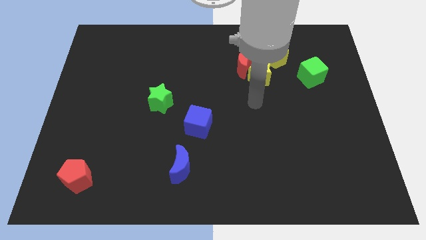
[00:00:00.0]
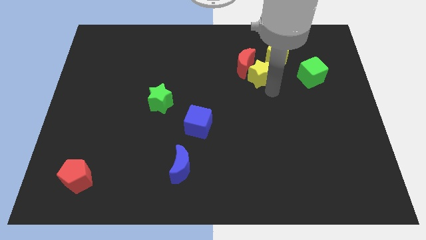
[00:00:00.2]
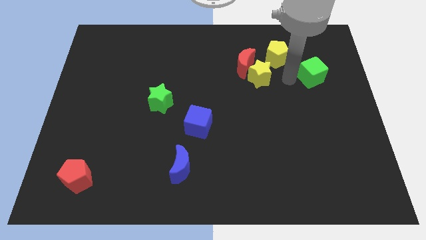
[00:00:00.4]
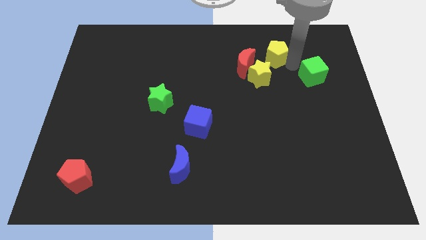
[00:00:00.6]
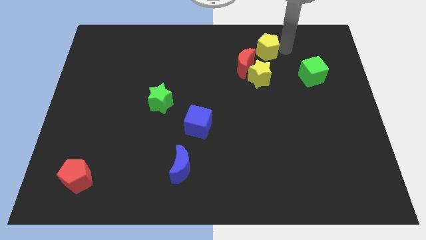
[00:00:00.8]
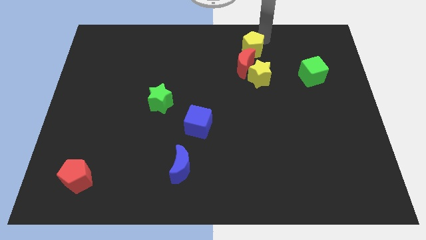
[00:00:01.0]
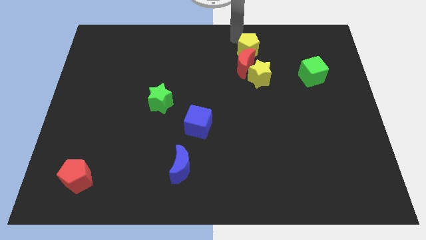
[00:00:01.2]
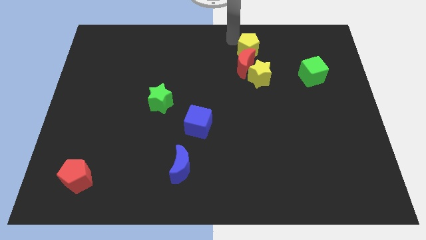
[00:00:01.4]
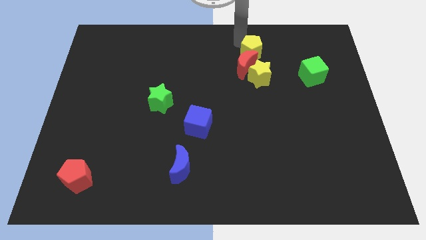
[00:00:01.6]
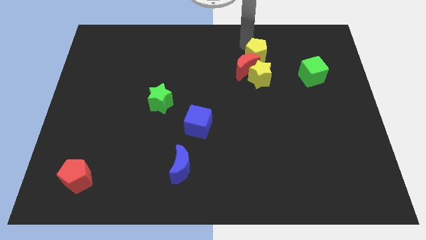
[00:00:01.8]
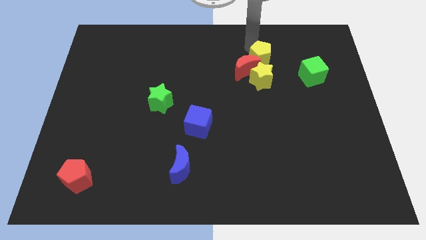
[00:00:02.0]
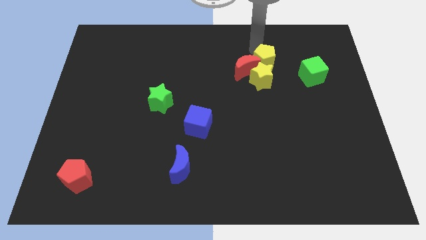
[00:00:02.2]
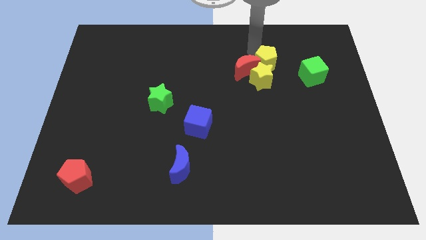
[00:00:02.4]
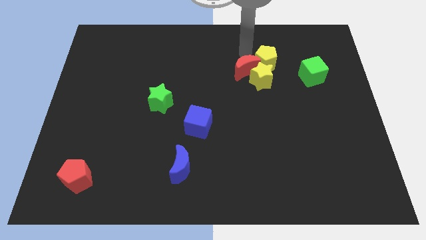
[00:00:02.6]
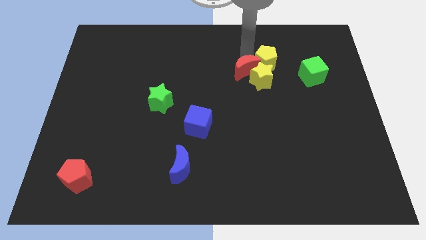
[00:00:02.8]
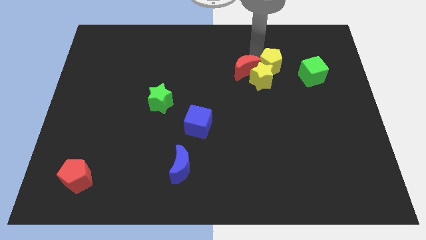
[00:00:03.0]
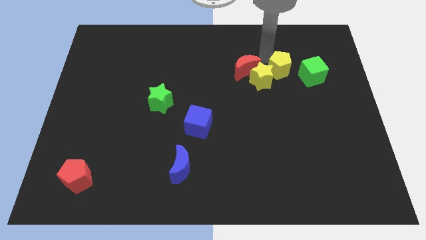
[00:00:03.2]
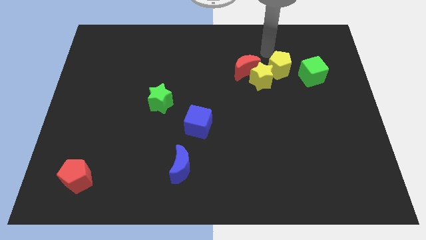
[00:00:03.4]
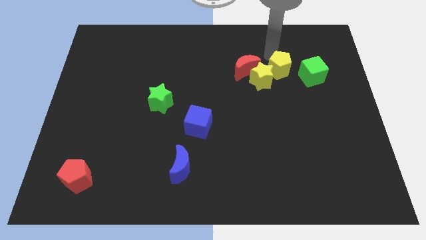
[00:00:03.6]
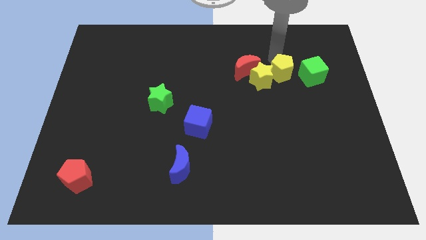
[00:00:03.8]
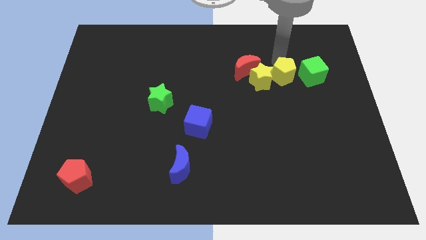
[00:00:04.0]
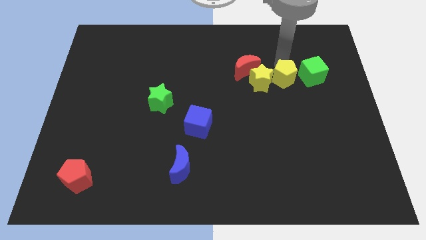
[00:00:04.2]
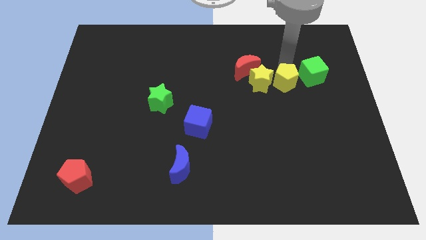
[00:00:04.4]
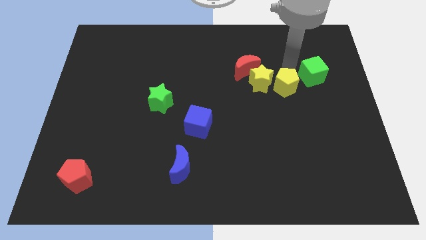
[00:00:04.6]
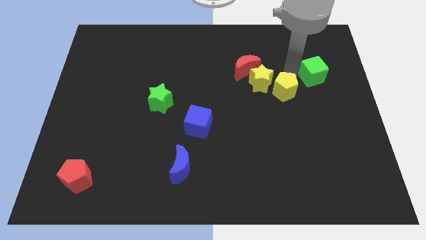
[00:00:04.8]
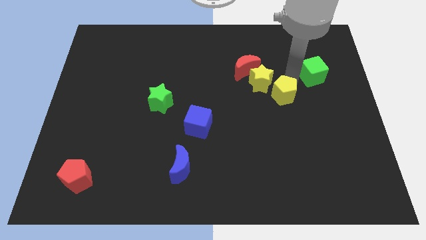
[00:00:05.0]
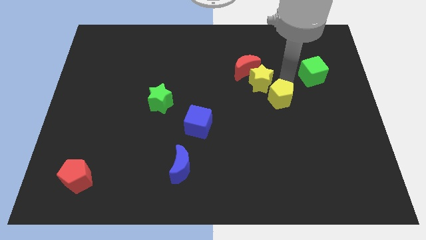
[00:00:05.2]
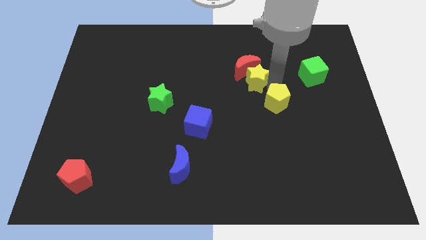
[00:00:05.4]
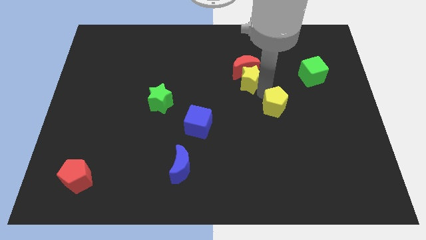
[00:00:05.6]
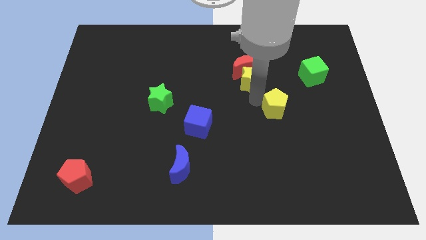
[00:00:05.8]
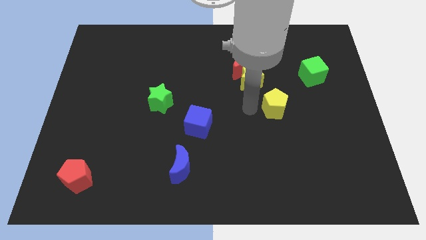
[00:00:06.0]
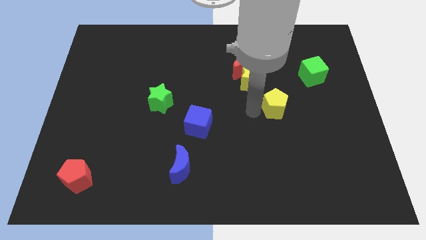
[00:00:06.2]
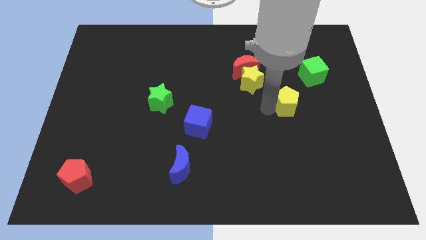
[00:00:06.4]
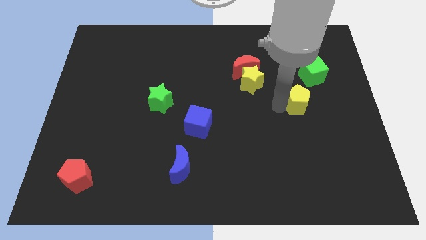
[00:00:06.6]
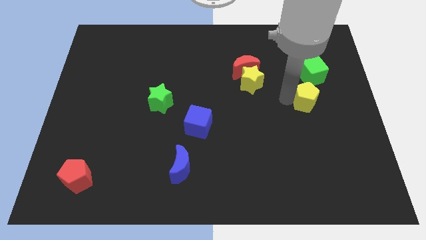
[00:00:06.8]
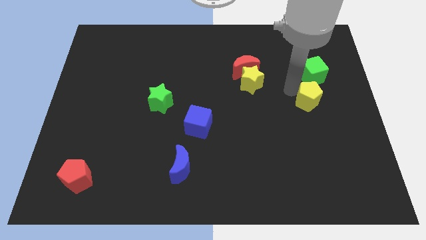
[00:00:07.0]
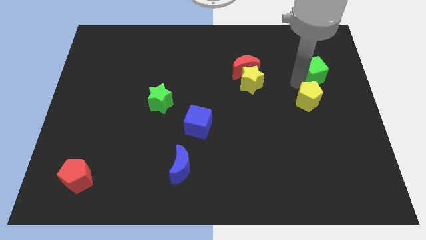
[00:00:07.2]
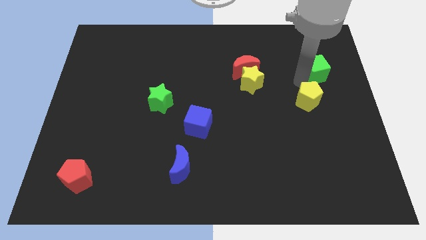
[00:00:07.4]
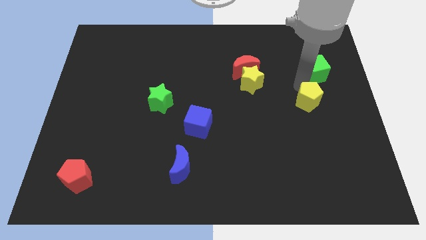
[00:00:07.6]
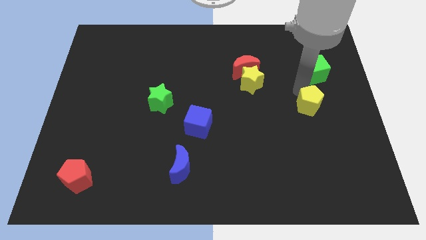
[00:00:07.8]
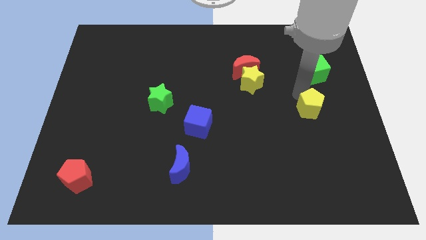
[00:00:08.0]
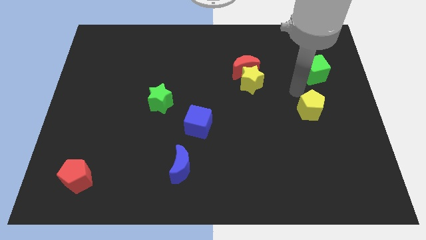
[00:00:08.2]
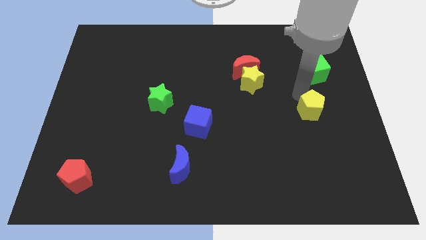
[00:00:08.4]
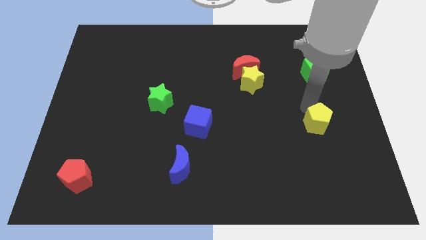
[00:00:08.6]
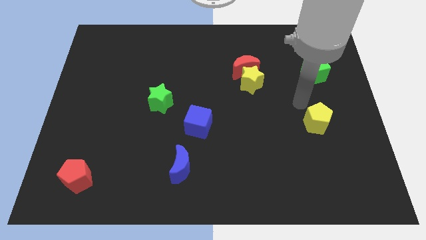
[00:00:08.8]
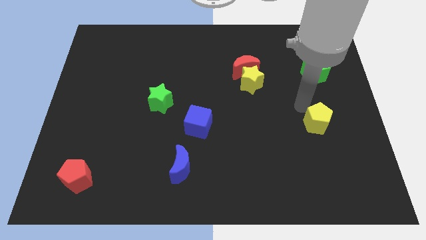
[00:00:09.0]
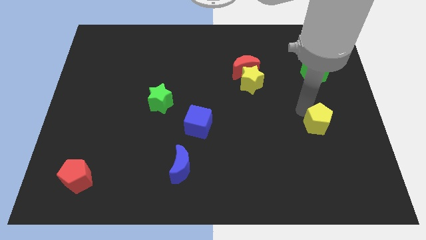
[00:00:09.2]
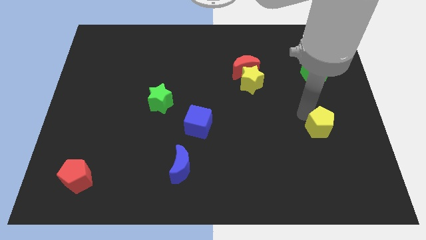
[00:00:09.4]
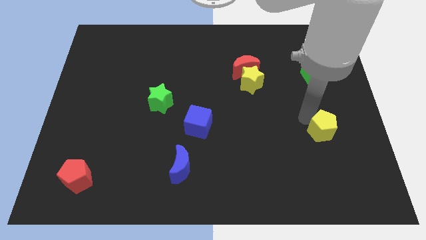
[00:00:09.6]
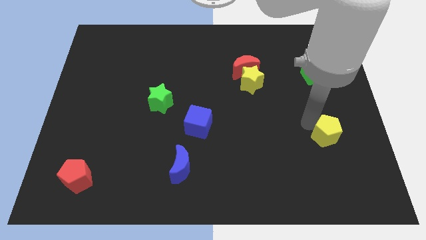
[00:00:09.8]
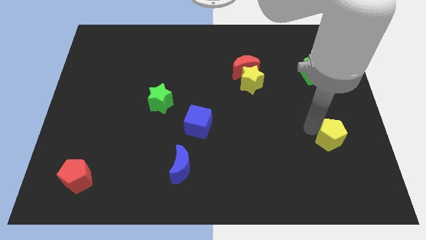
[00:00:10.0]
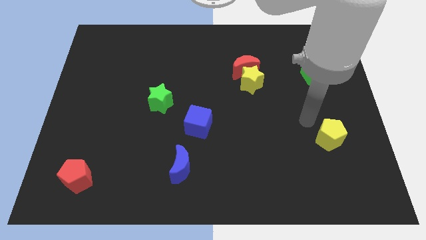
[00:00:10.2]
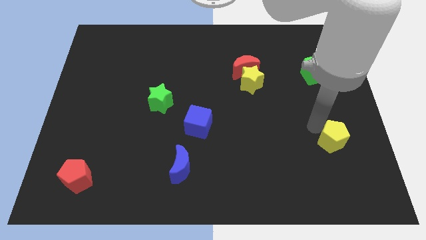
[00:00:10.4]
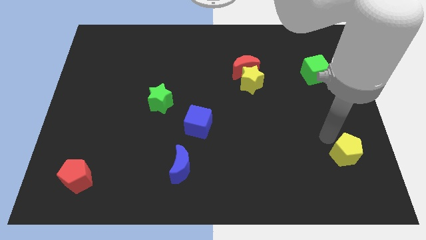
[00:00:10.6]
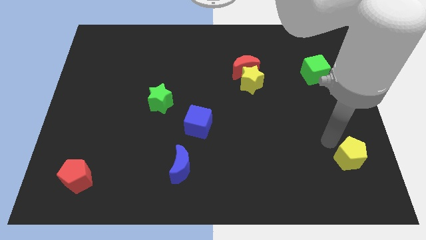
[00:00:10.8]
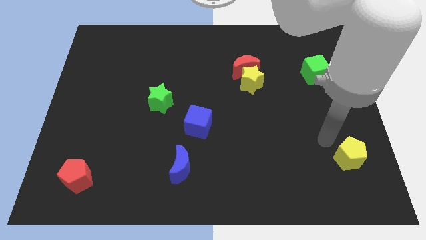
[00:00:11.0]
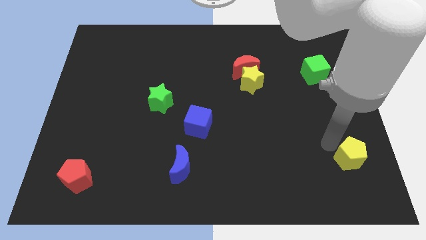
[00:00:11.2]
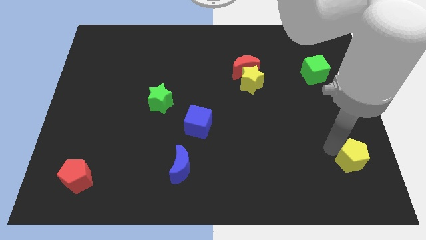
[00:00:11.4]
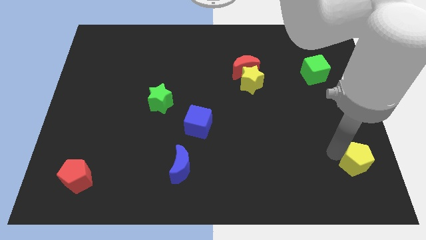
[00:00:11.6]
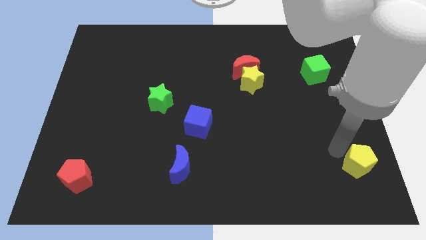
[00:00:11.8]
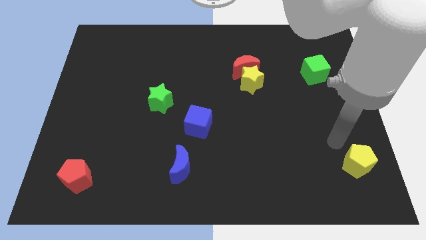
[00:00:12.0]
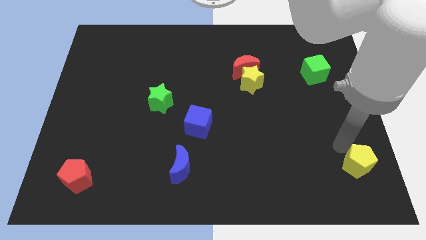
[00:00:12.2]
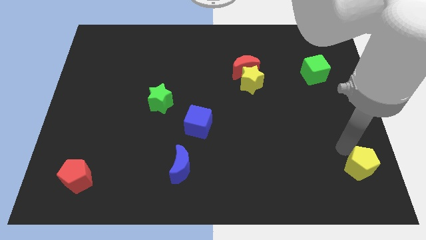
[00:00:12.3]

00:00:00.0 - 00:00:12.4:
move the yellow pentagon to the bottom right corner

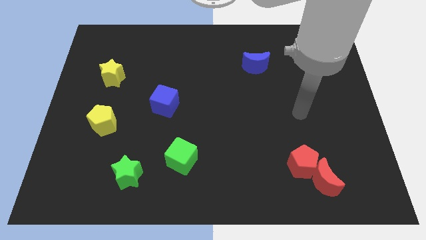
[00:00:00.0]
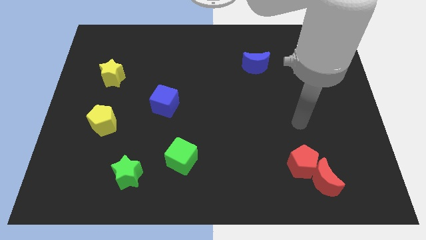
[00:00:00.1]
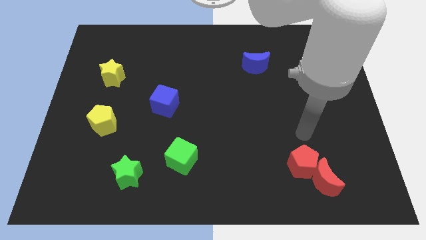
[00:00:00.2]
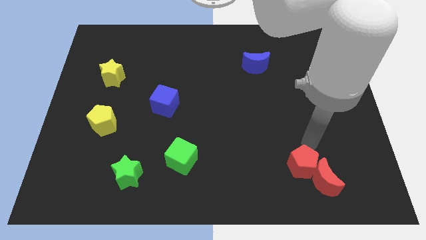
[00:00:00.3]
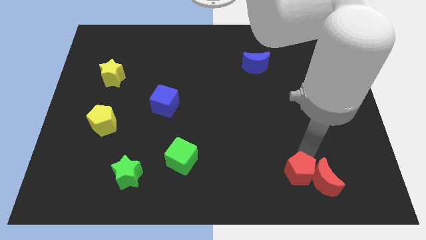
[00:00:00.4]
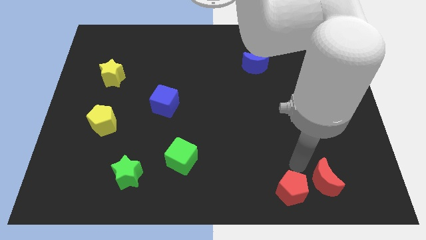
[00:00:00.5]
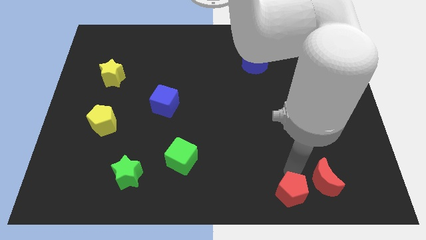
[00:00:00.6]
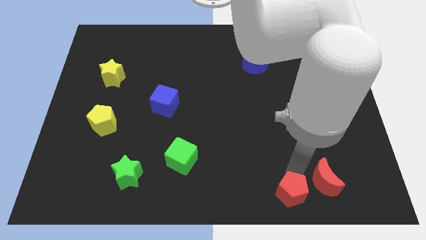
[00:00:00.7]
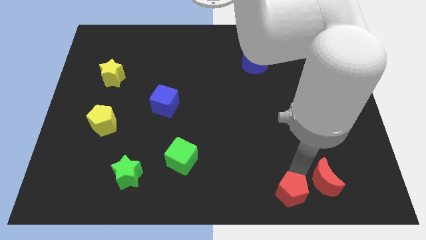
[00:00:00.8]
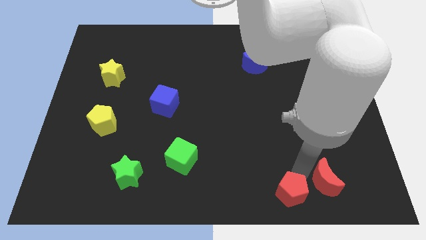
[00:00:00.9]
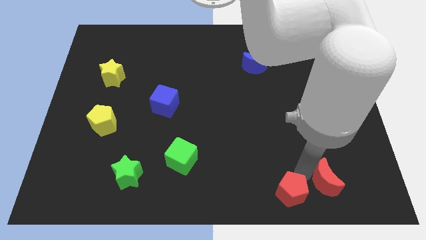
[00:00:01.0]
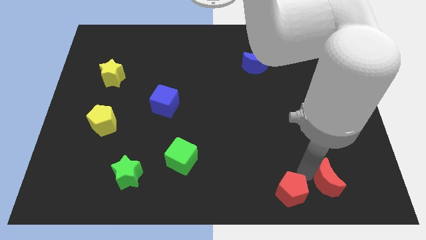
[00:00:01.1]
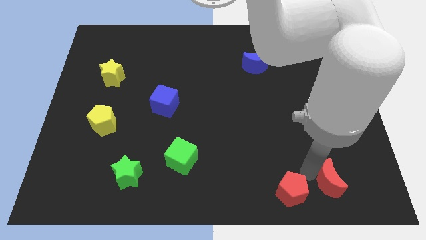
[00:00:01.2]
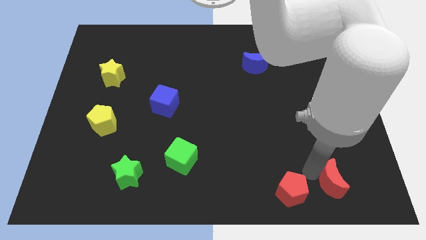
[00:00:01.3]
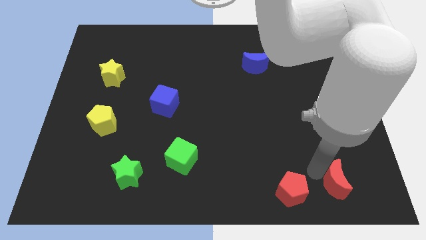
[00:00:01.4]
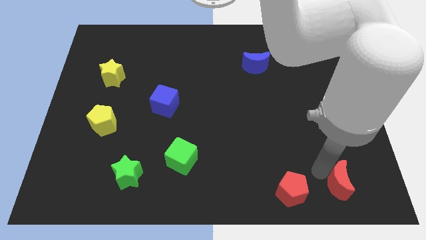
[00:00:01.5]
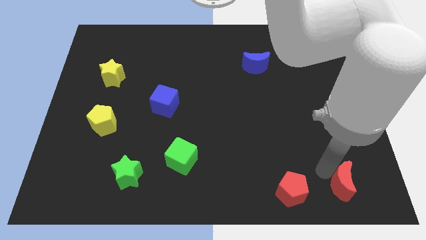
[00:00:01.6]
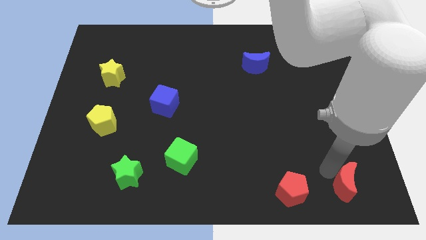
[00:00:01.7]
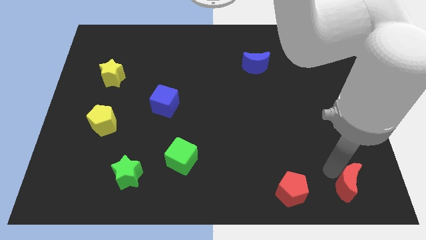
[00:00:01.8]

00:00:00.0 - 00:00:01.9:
move the red moon to the bottom right of the board
